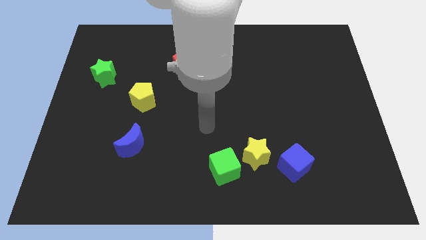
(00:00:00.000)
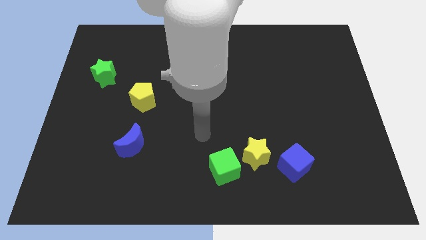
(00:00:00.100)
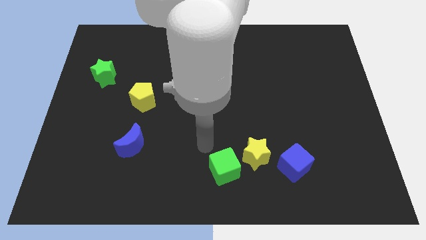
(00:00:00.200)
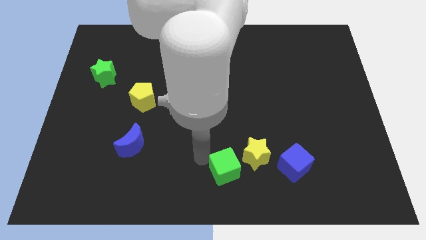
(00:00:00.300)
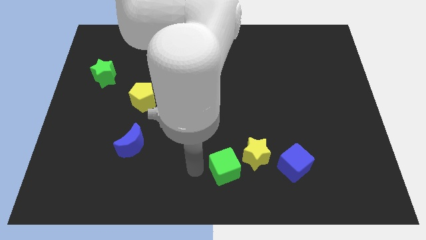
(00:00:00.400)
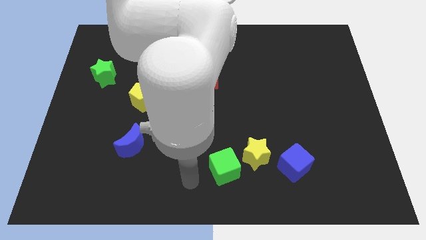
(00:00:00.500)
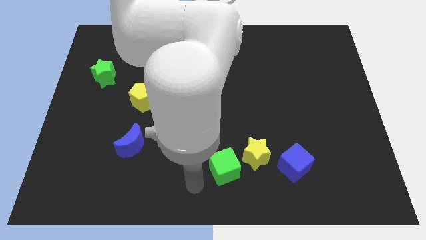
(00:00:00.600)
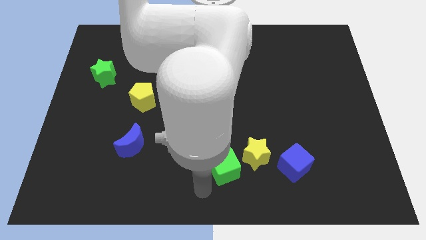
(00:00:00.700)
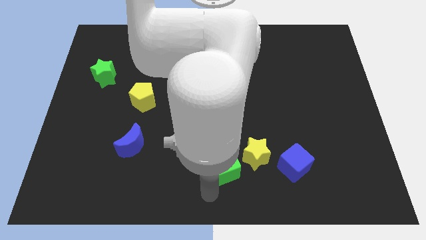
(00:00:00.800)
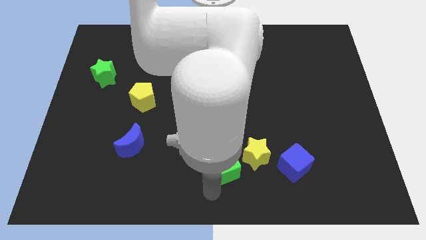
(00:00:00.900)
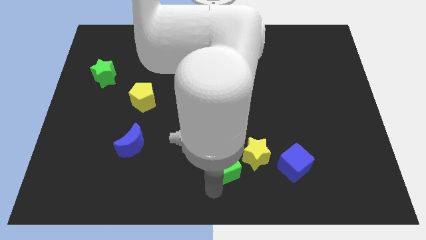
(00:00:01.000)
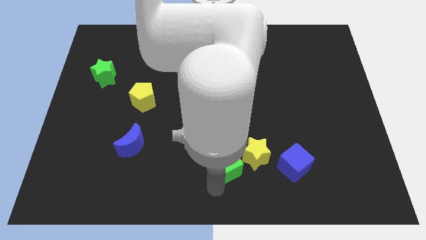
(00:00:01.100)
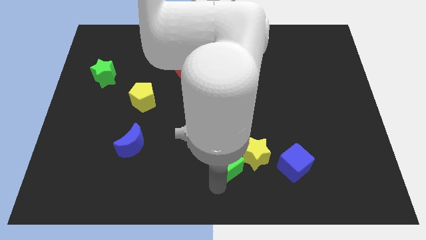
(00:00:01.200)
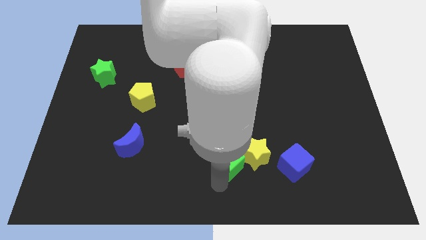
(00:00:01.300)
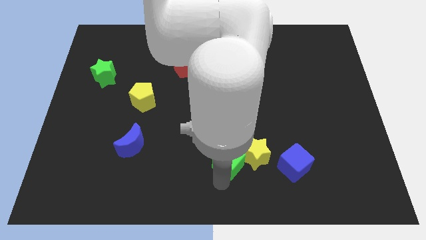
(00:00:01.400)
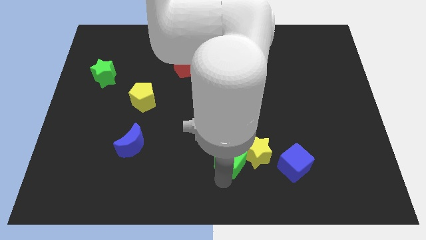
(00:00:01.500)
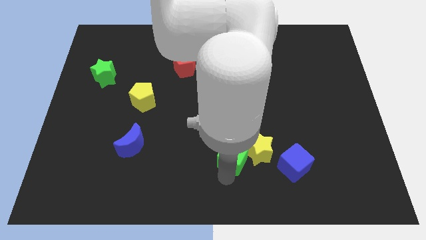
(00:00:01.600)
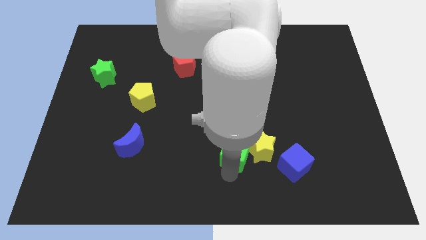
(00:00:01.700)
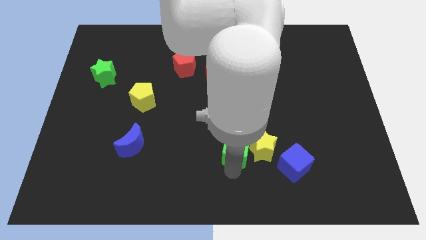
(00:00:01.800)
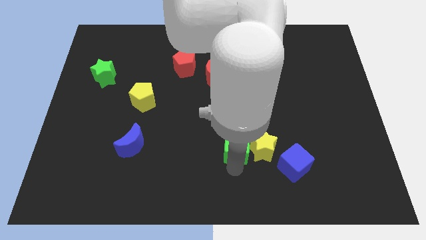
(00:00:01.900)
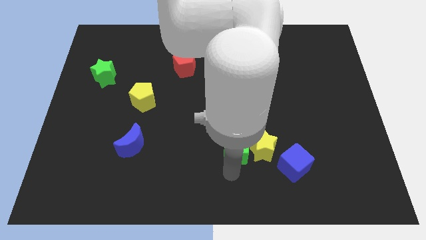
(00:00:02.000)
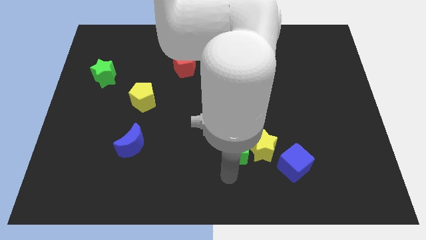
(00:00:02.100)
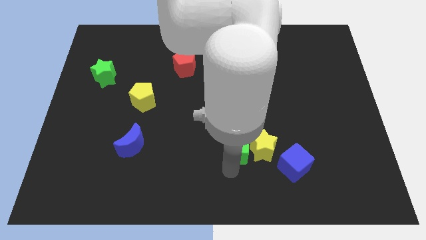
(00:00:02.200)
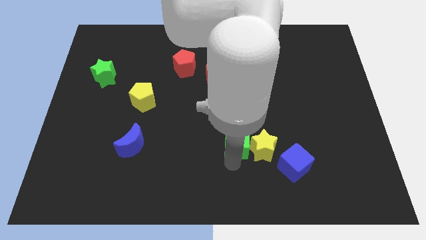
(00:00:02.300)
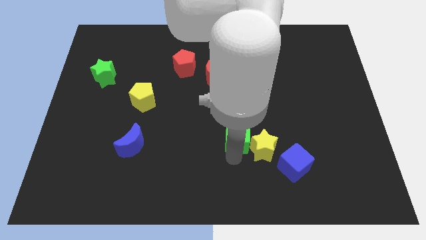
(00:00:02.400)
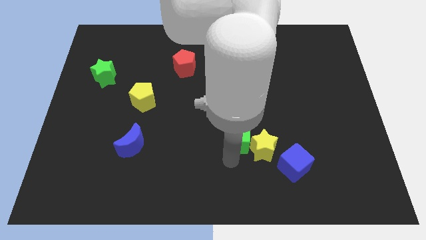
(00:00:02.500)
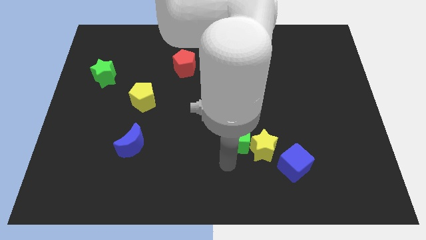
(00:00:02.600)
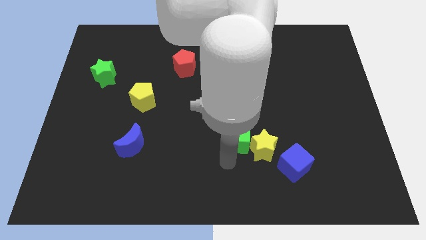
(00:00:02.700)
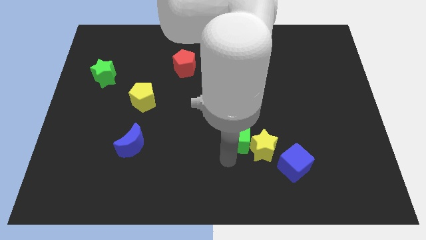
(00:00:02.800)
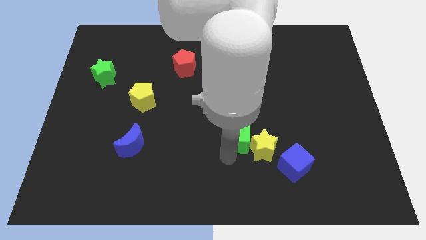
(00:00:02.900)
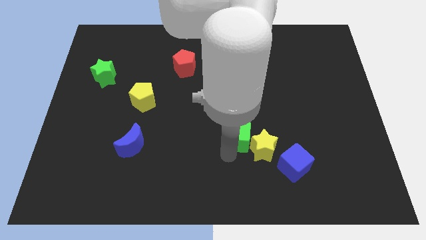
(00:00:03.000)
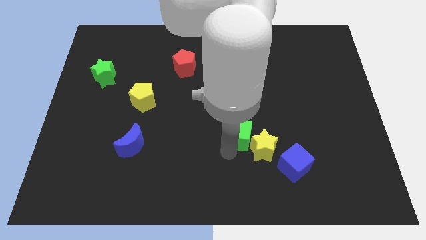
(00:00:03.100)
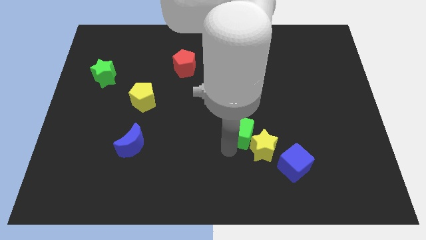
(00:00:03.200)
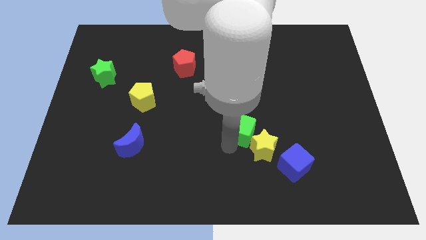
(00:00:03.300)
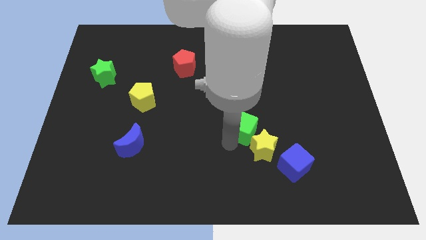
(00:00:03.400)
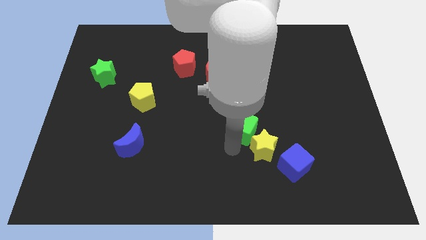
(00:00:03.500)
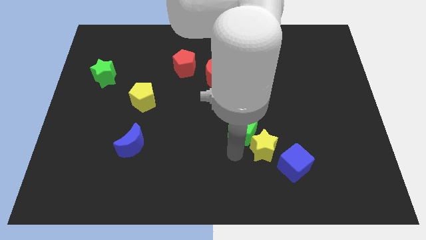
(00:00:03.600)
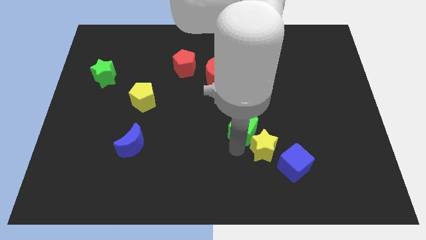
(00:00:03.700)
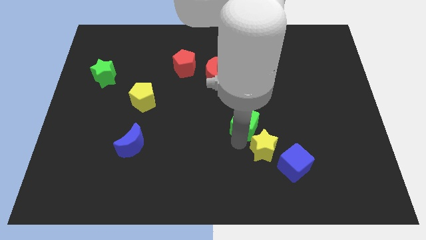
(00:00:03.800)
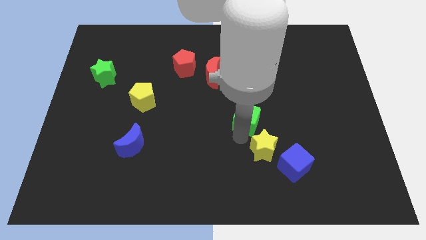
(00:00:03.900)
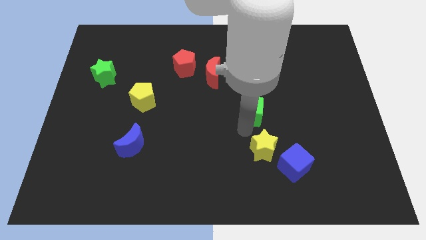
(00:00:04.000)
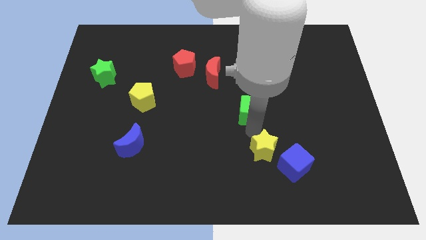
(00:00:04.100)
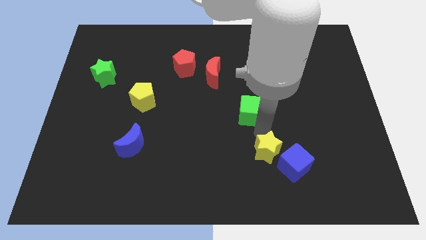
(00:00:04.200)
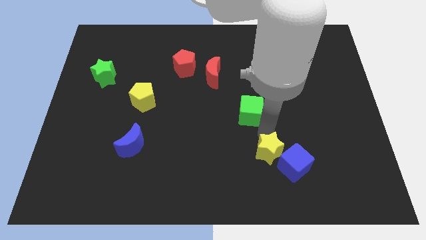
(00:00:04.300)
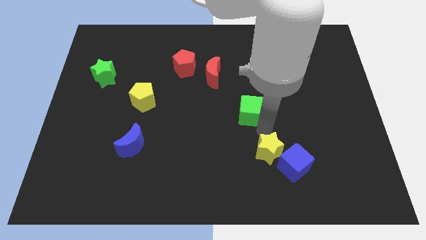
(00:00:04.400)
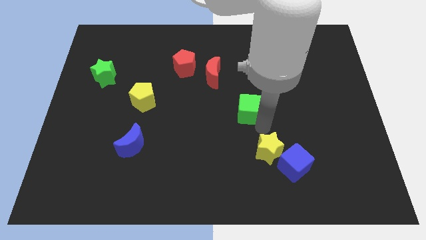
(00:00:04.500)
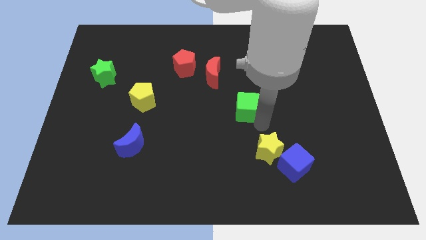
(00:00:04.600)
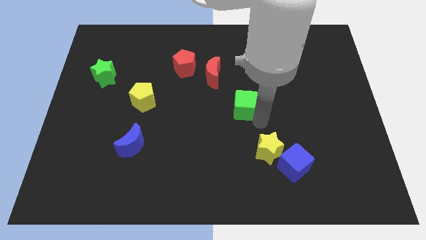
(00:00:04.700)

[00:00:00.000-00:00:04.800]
slide the green cube diagonally down and to the right of the red moon

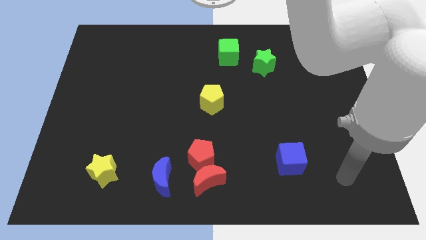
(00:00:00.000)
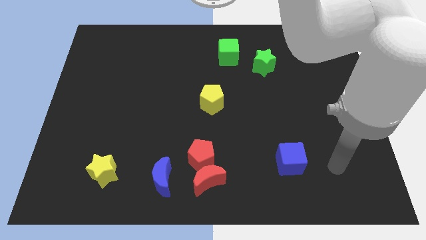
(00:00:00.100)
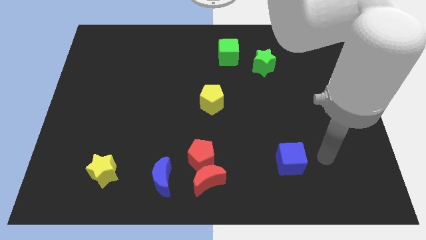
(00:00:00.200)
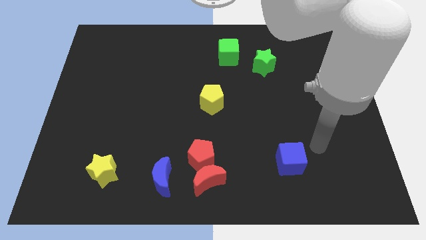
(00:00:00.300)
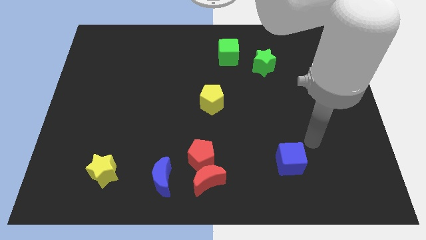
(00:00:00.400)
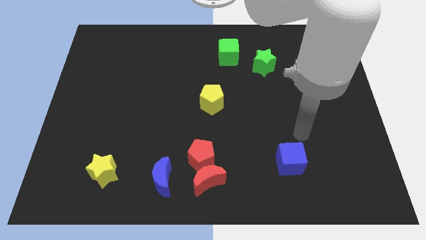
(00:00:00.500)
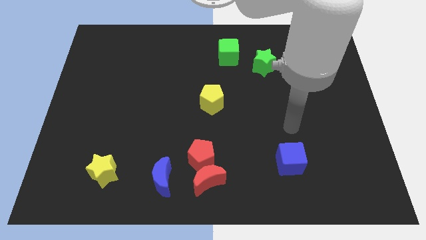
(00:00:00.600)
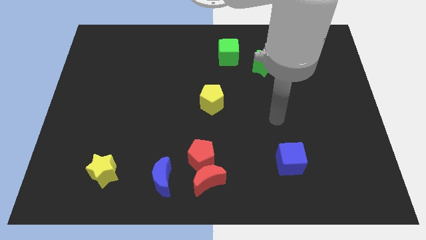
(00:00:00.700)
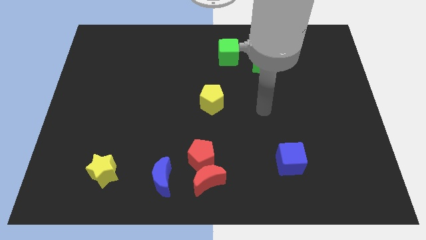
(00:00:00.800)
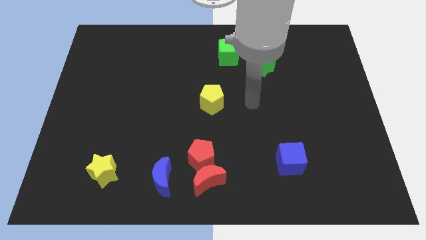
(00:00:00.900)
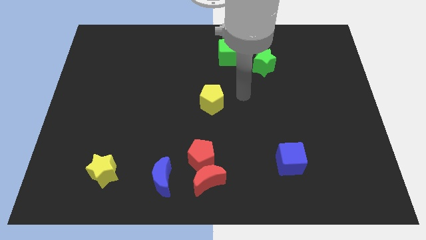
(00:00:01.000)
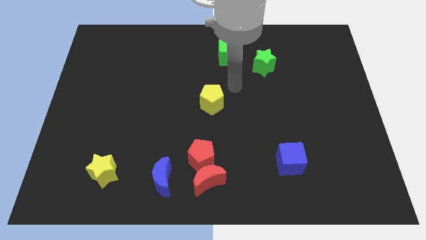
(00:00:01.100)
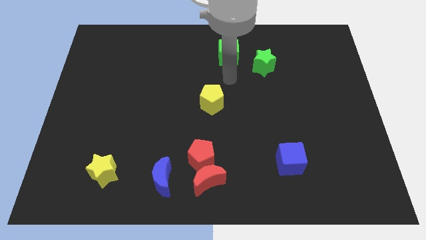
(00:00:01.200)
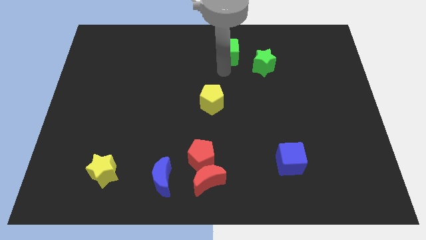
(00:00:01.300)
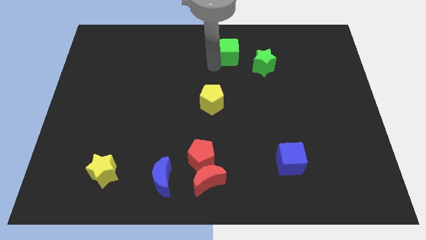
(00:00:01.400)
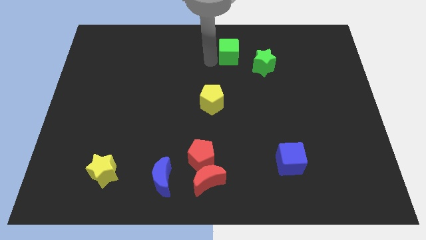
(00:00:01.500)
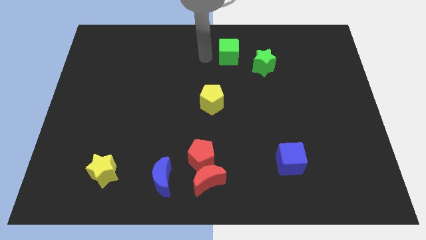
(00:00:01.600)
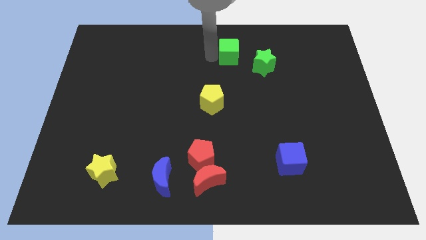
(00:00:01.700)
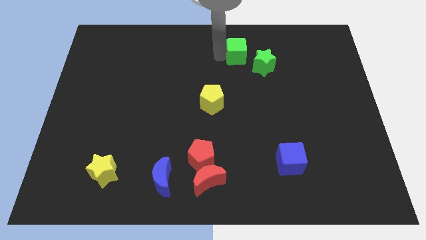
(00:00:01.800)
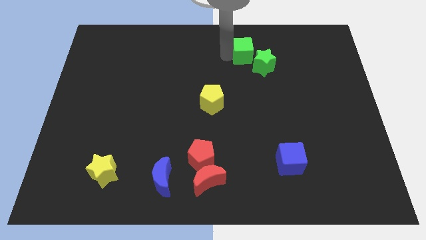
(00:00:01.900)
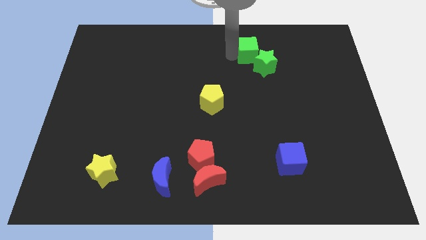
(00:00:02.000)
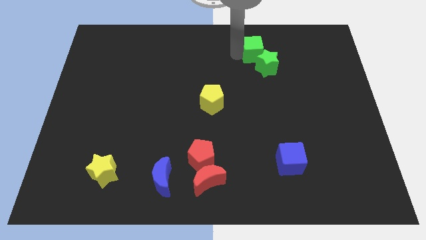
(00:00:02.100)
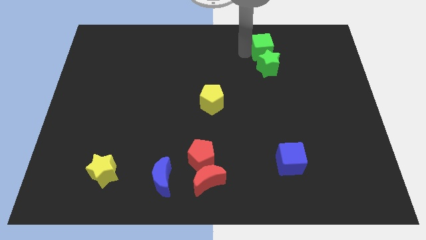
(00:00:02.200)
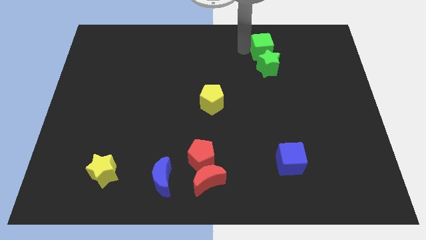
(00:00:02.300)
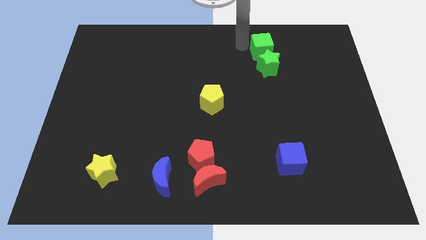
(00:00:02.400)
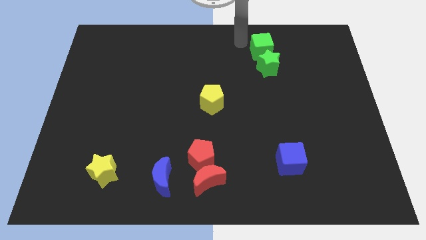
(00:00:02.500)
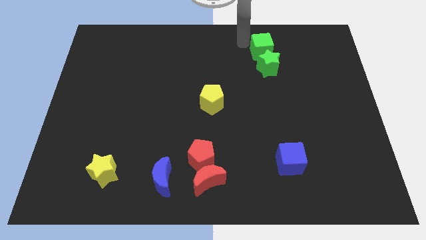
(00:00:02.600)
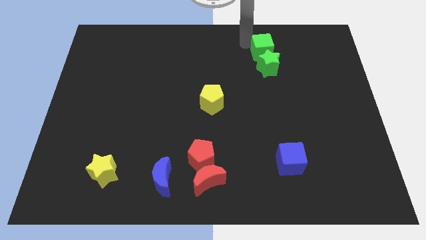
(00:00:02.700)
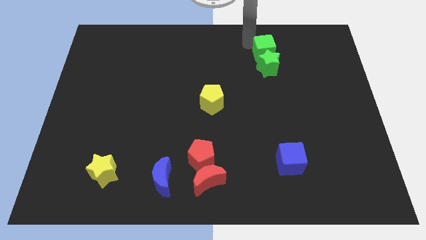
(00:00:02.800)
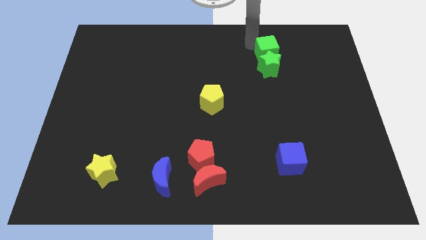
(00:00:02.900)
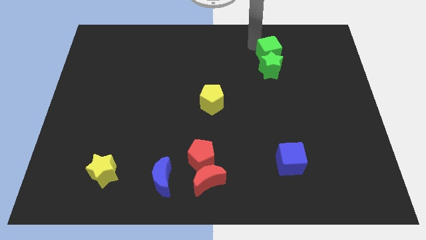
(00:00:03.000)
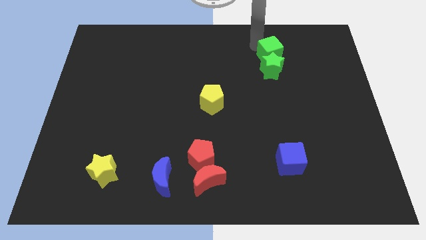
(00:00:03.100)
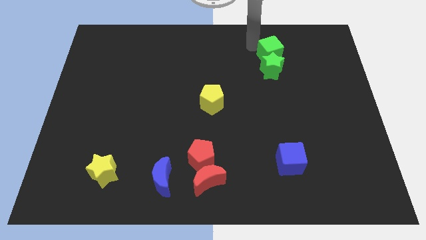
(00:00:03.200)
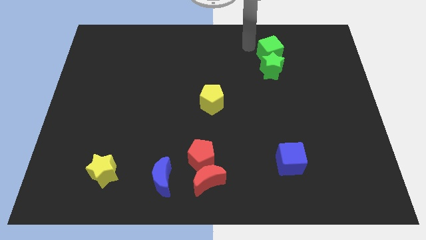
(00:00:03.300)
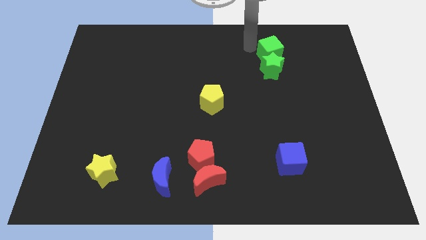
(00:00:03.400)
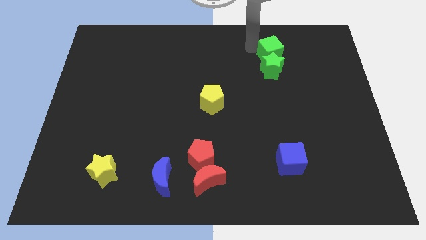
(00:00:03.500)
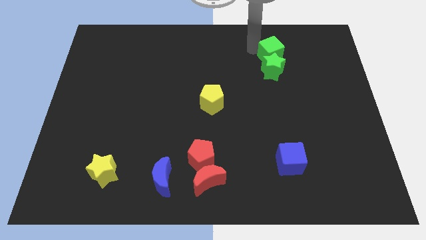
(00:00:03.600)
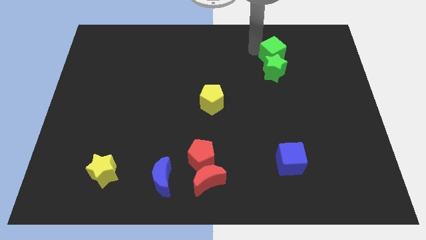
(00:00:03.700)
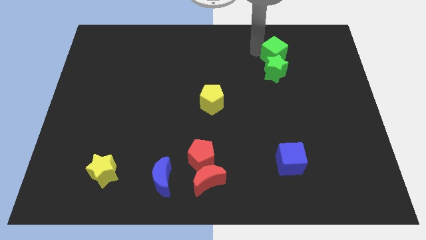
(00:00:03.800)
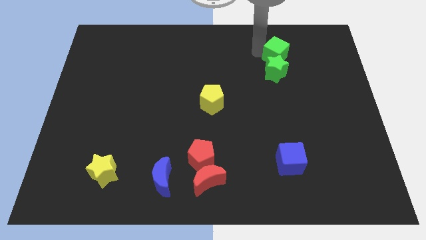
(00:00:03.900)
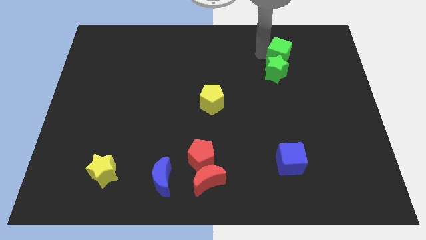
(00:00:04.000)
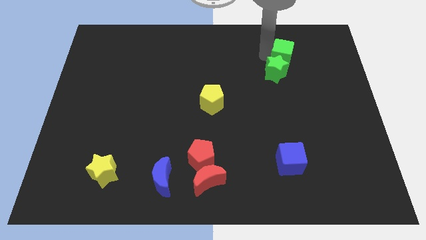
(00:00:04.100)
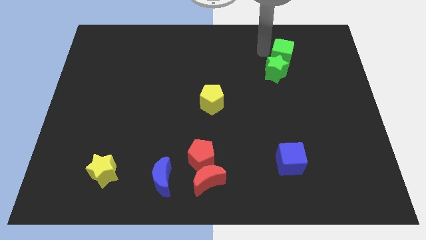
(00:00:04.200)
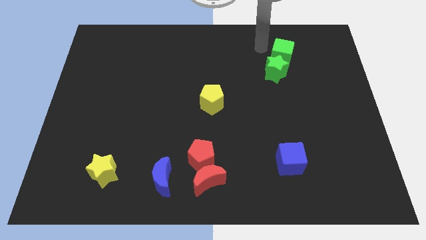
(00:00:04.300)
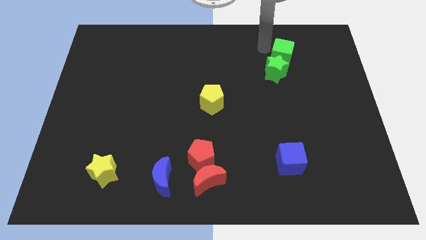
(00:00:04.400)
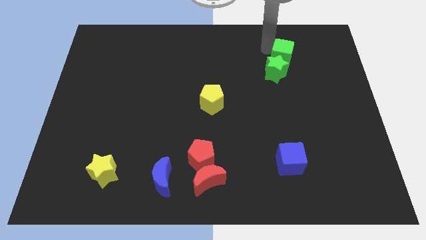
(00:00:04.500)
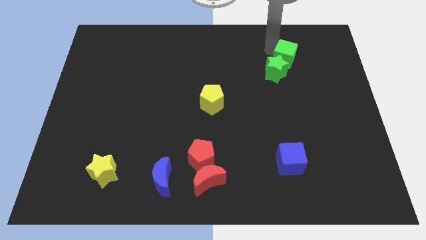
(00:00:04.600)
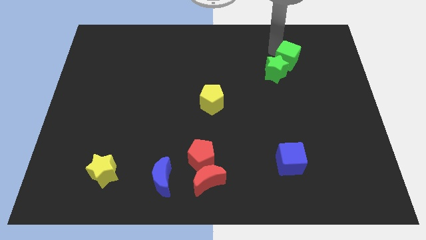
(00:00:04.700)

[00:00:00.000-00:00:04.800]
move the green cube right of the green star
